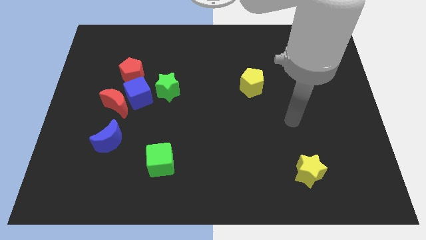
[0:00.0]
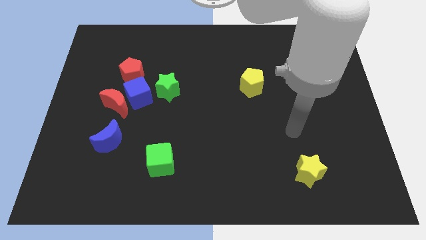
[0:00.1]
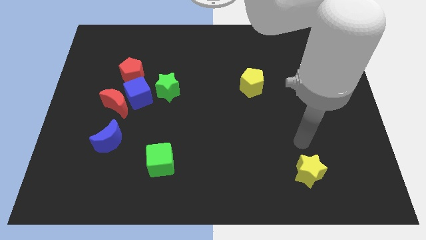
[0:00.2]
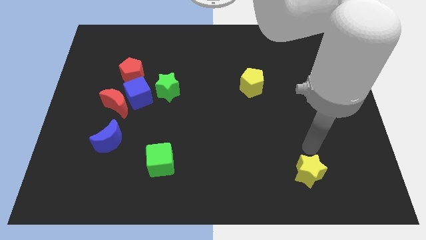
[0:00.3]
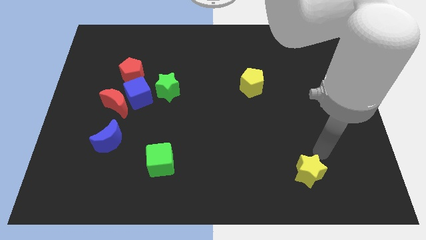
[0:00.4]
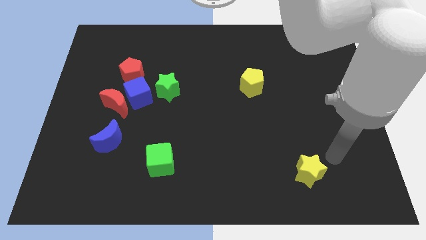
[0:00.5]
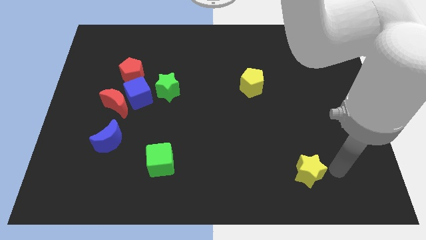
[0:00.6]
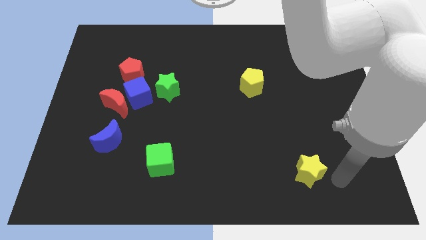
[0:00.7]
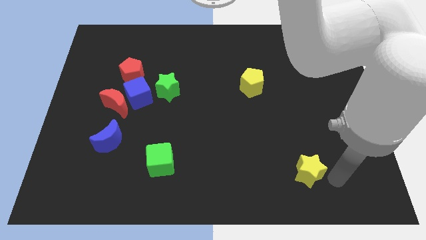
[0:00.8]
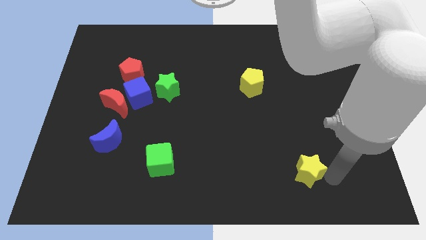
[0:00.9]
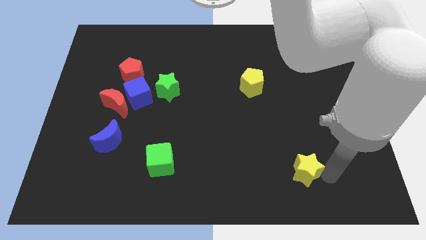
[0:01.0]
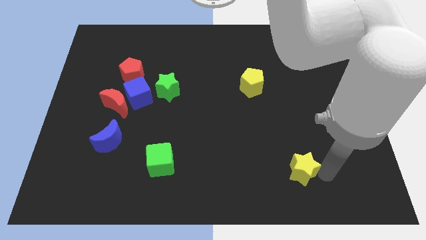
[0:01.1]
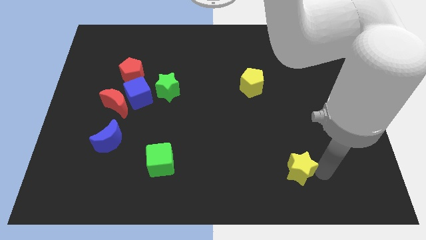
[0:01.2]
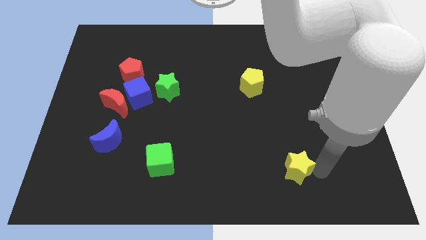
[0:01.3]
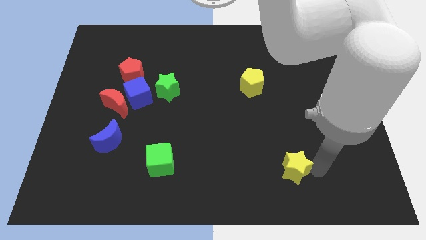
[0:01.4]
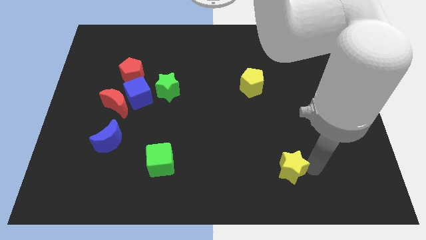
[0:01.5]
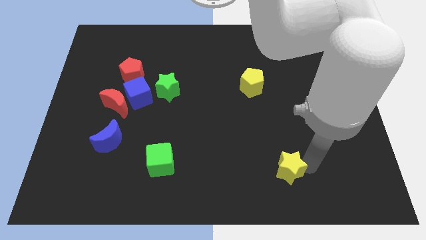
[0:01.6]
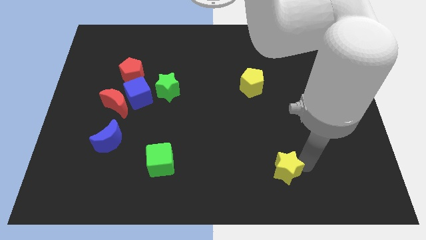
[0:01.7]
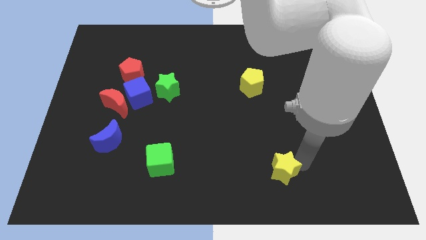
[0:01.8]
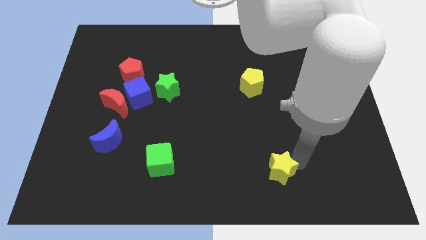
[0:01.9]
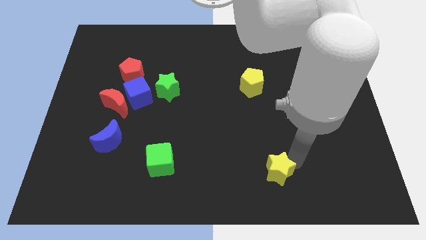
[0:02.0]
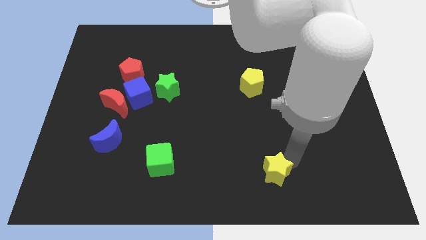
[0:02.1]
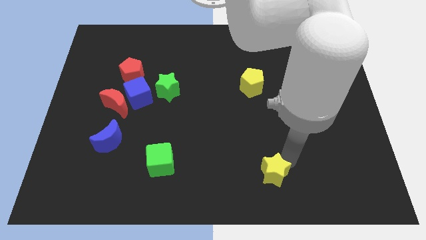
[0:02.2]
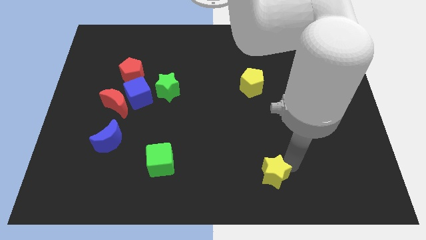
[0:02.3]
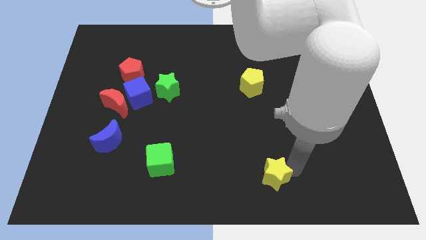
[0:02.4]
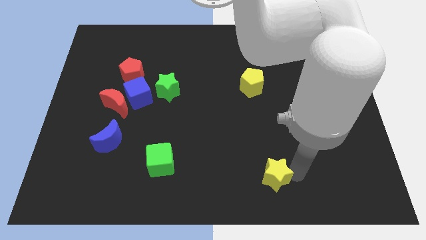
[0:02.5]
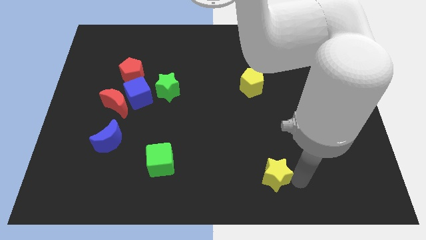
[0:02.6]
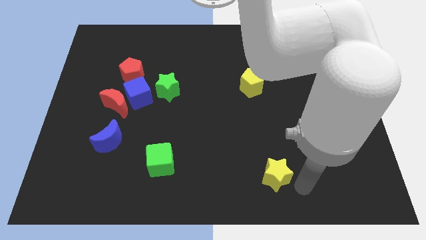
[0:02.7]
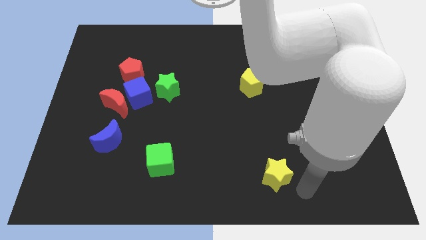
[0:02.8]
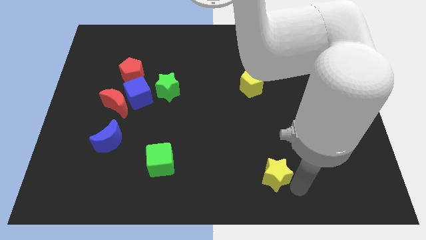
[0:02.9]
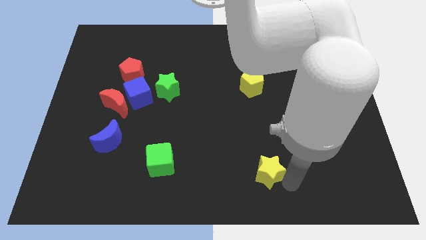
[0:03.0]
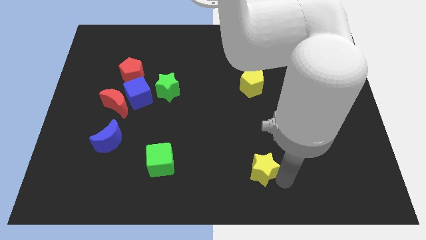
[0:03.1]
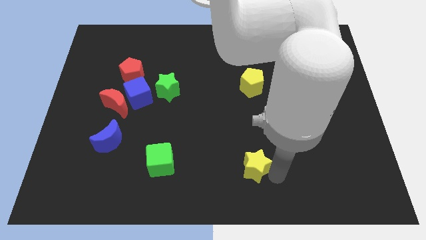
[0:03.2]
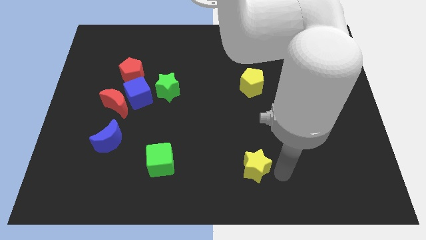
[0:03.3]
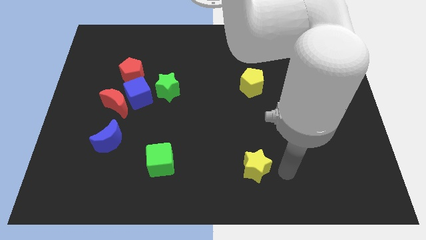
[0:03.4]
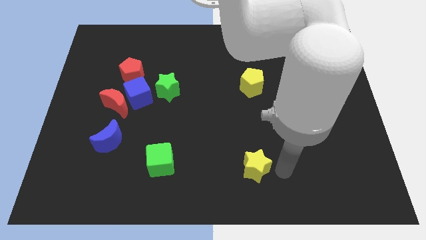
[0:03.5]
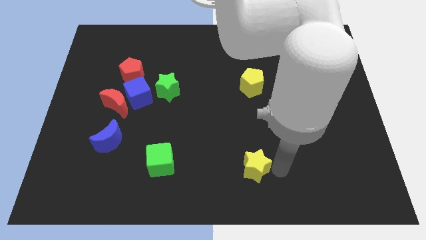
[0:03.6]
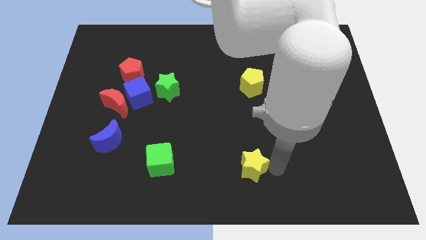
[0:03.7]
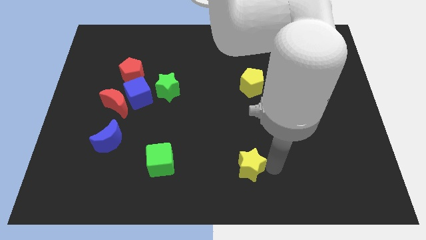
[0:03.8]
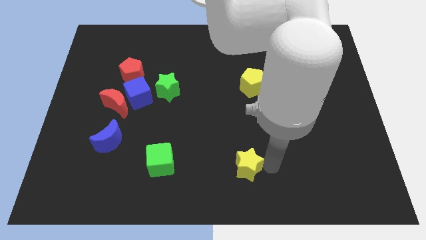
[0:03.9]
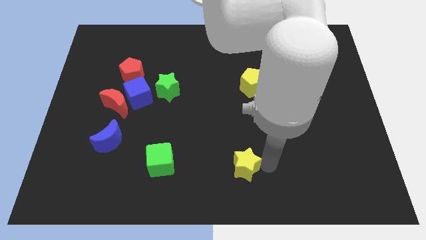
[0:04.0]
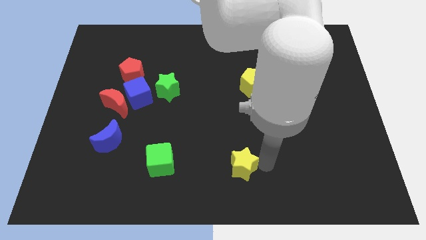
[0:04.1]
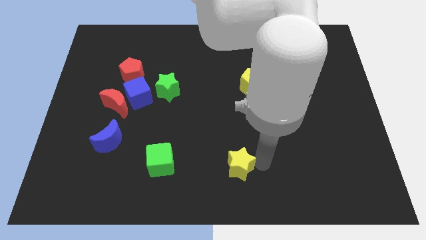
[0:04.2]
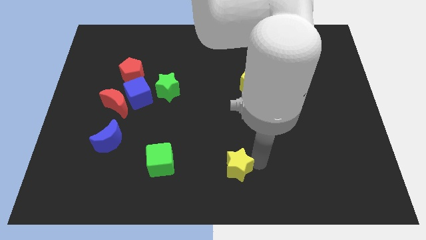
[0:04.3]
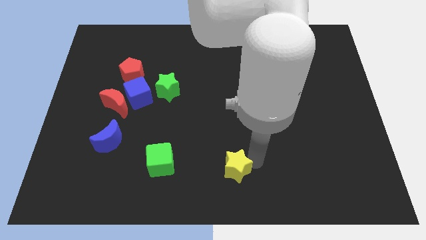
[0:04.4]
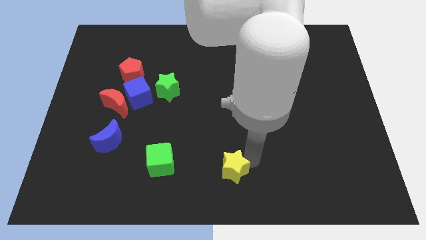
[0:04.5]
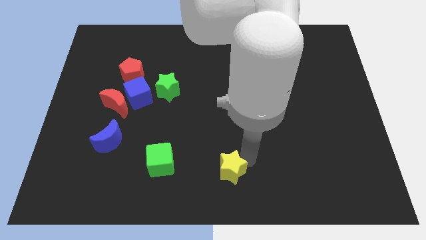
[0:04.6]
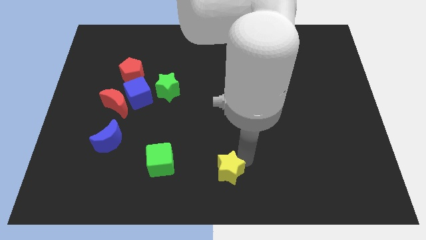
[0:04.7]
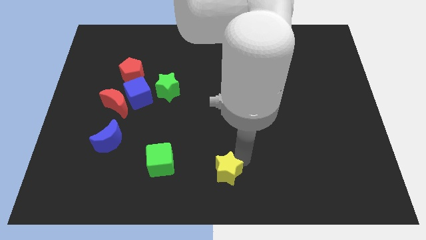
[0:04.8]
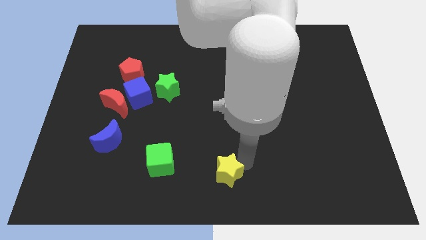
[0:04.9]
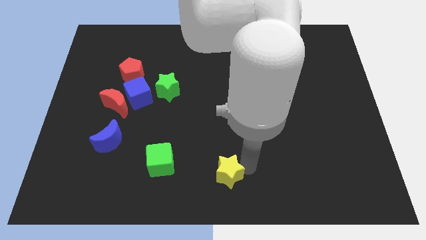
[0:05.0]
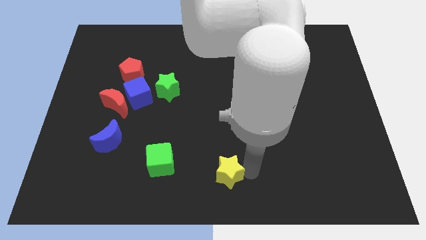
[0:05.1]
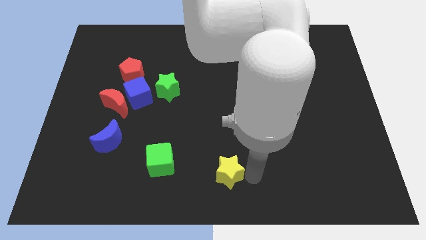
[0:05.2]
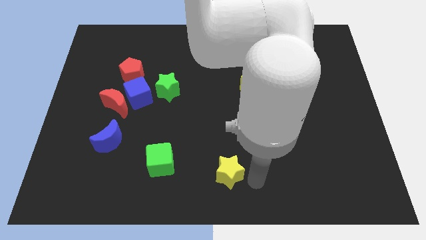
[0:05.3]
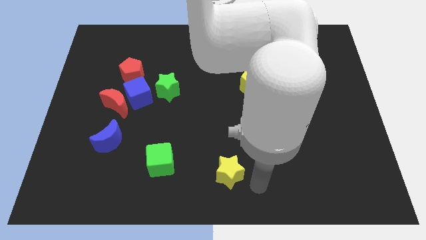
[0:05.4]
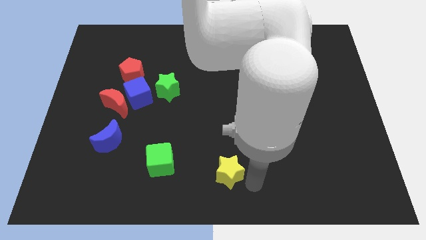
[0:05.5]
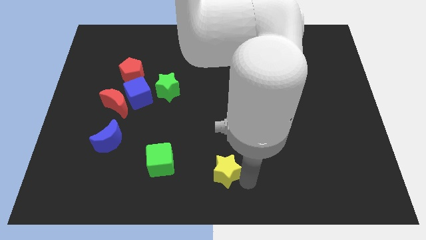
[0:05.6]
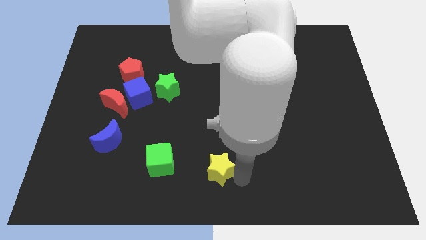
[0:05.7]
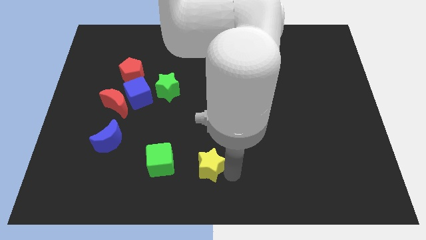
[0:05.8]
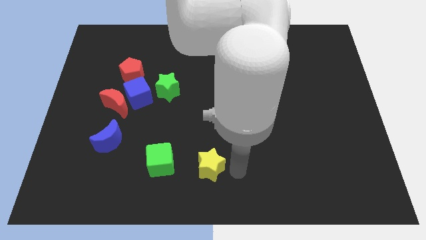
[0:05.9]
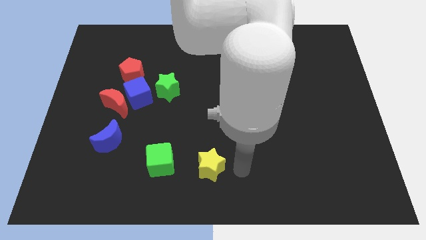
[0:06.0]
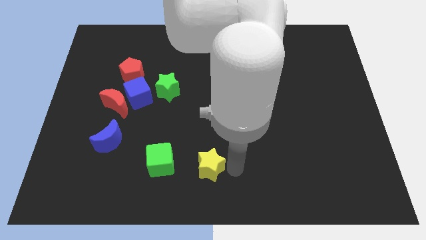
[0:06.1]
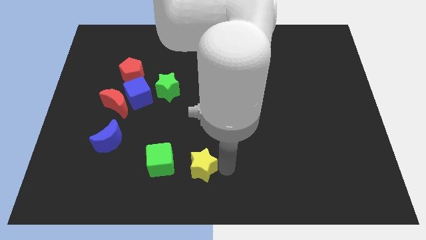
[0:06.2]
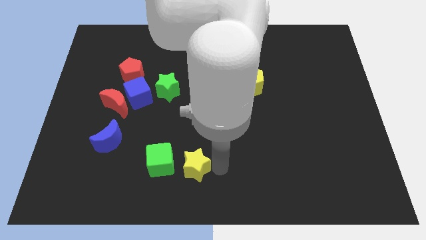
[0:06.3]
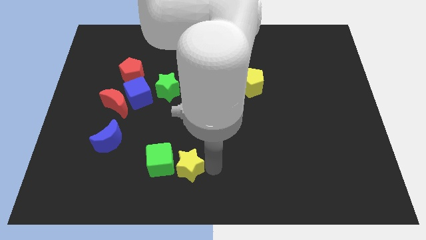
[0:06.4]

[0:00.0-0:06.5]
move the yellow star to the green cube

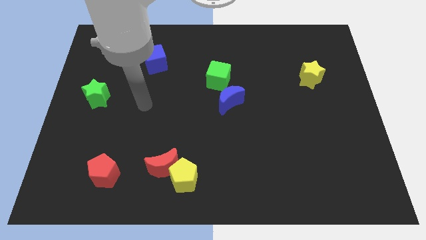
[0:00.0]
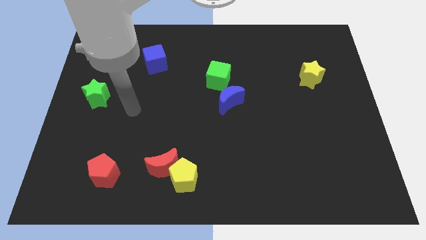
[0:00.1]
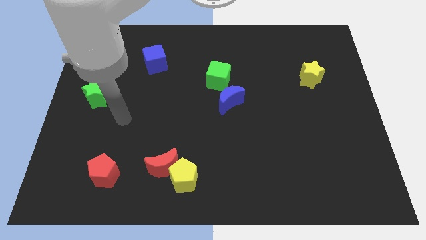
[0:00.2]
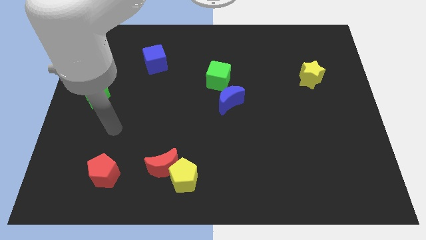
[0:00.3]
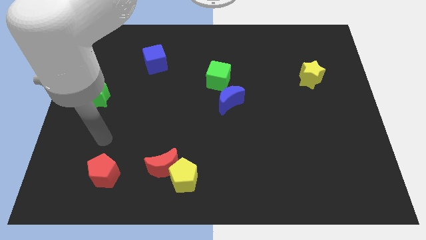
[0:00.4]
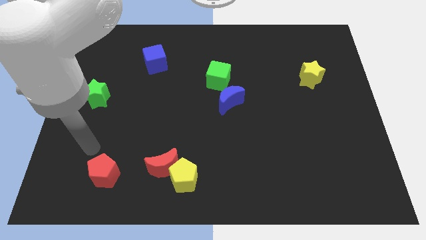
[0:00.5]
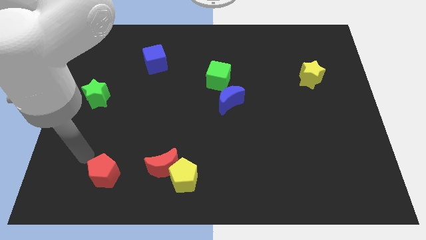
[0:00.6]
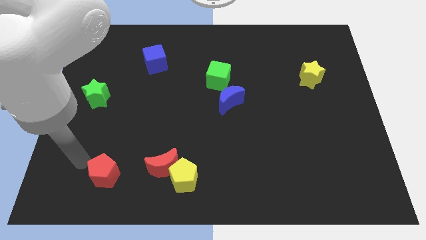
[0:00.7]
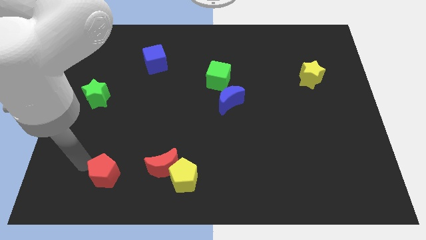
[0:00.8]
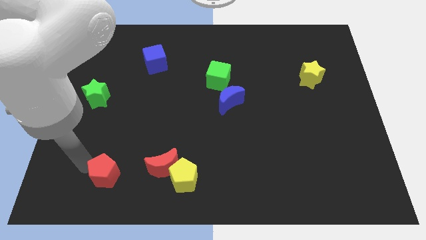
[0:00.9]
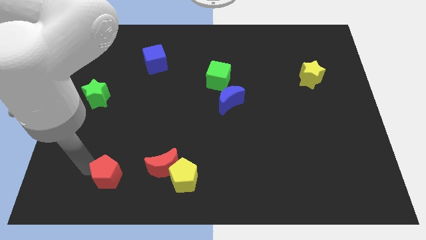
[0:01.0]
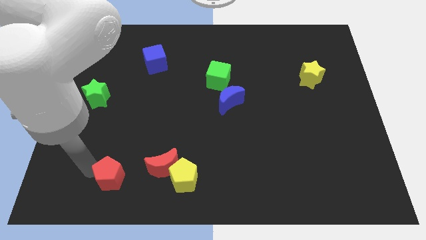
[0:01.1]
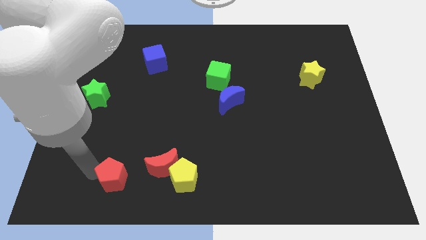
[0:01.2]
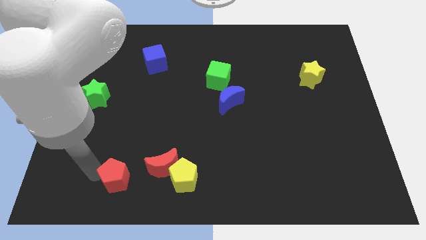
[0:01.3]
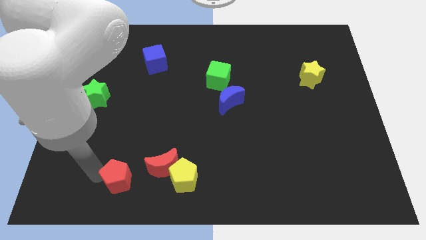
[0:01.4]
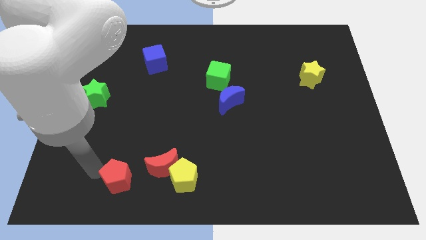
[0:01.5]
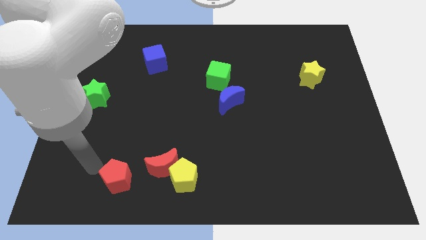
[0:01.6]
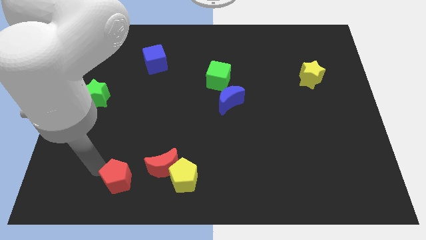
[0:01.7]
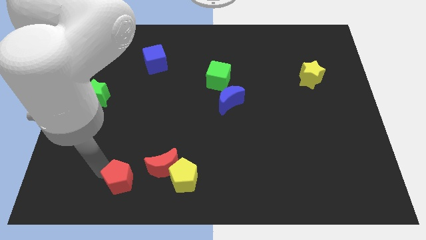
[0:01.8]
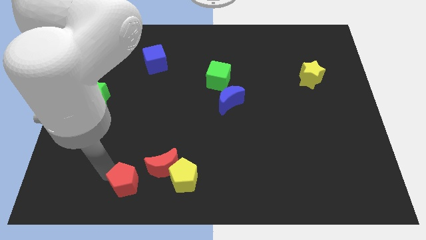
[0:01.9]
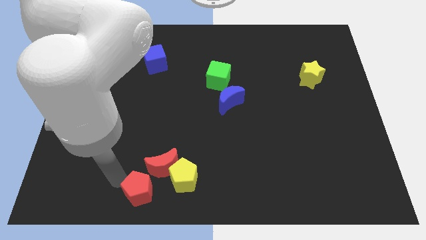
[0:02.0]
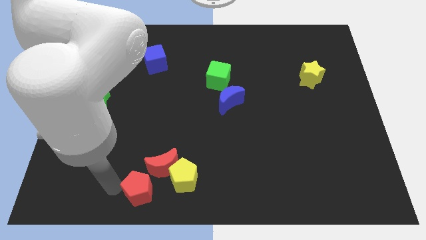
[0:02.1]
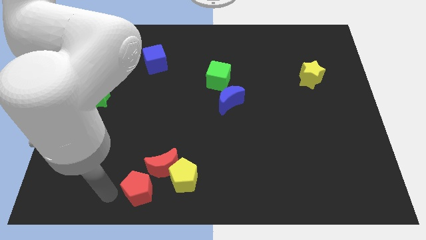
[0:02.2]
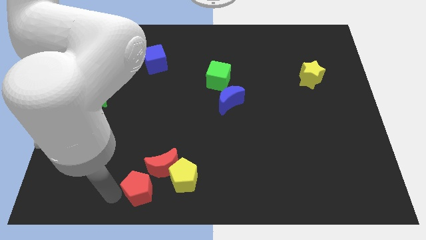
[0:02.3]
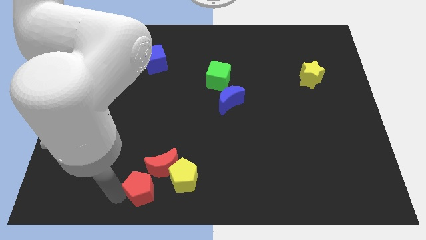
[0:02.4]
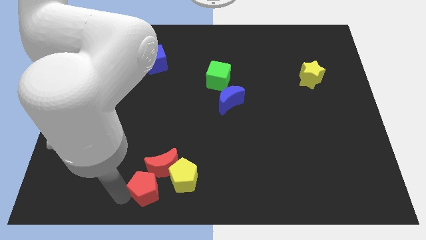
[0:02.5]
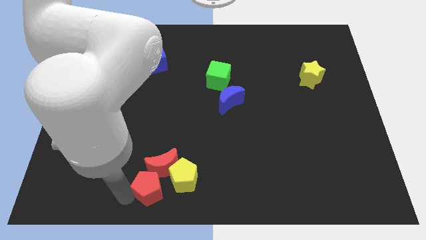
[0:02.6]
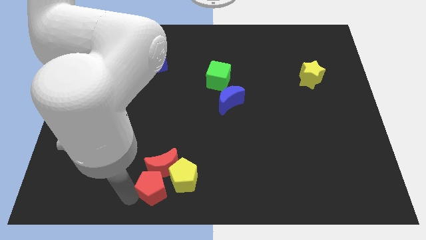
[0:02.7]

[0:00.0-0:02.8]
slide the red pentagon close to the yellow pentagon
